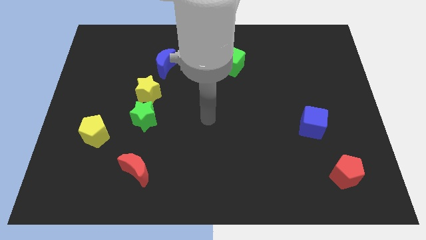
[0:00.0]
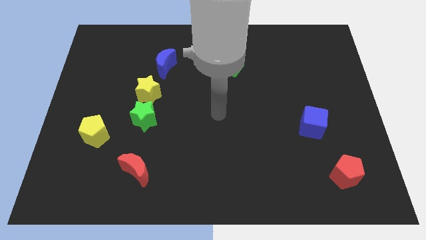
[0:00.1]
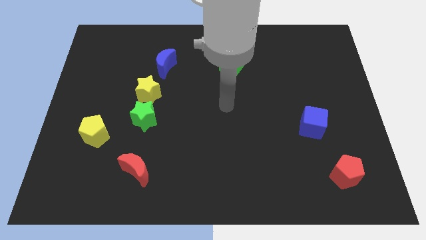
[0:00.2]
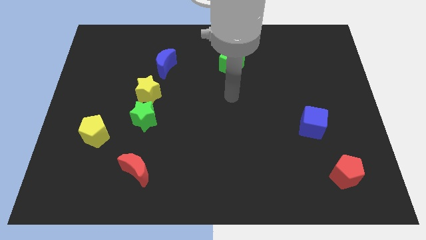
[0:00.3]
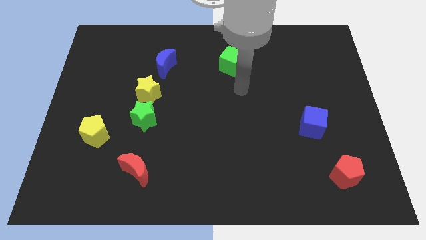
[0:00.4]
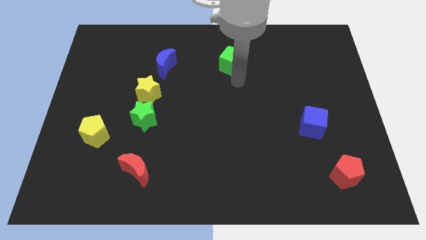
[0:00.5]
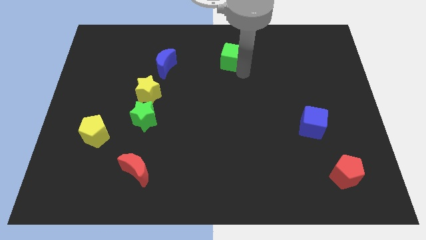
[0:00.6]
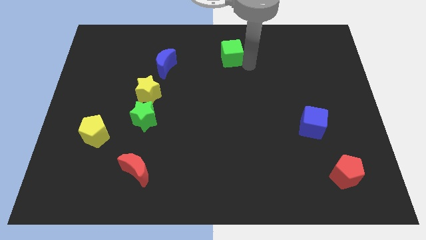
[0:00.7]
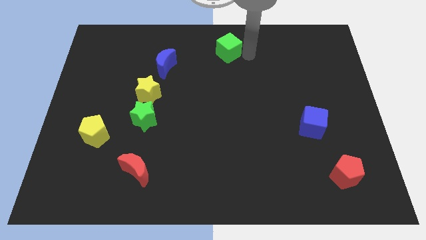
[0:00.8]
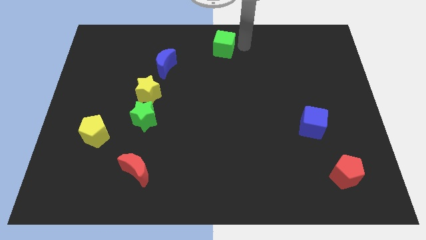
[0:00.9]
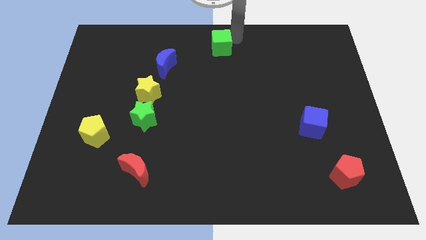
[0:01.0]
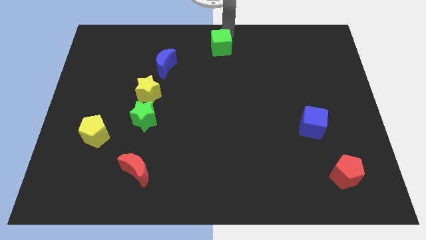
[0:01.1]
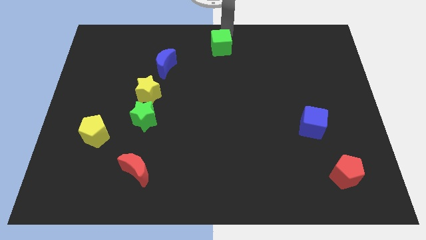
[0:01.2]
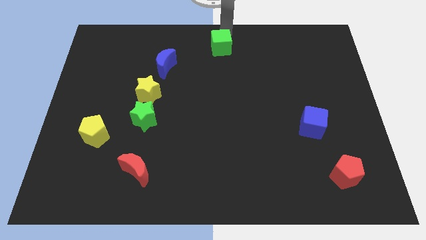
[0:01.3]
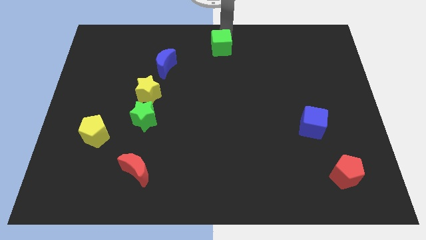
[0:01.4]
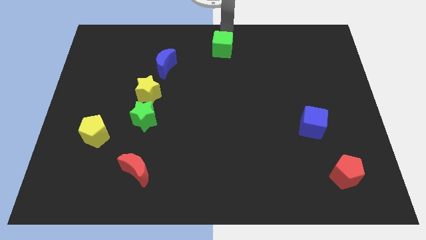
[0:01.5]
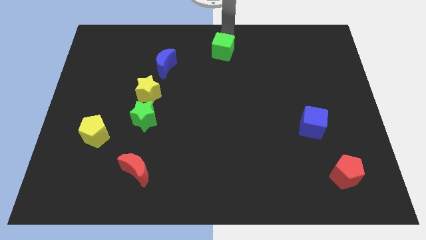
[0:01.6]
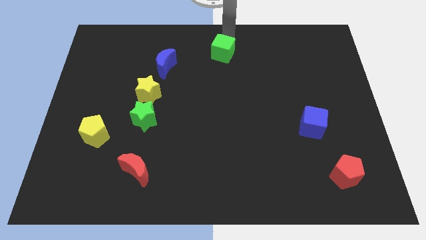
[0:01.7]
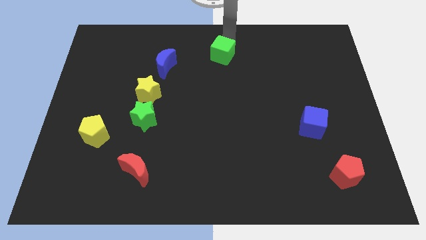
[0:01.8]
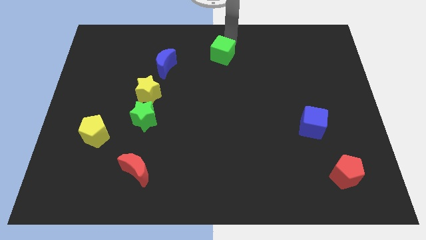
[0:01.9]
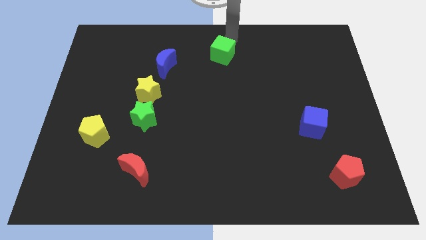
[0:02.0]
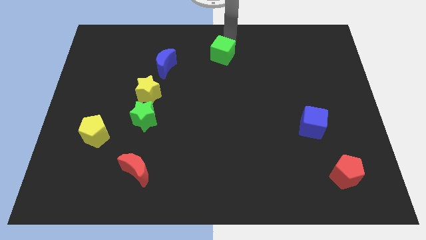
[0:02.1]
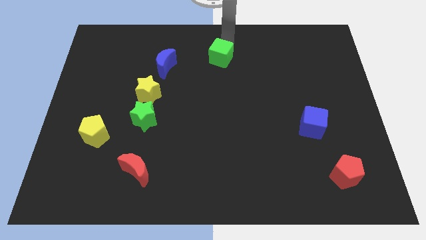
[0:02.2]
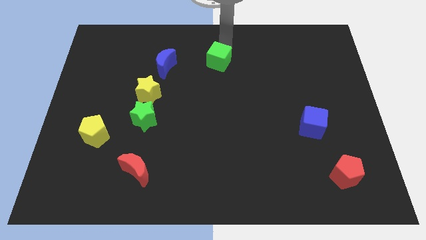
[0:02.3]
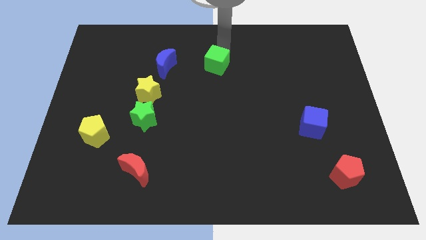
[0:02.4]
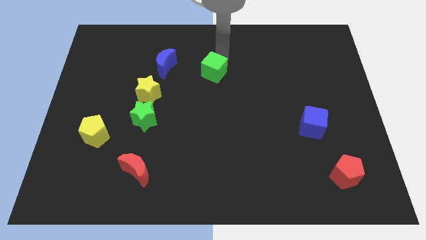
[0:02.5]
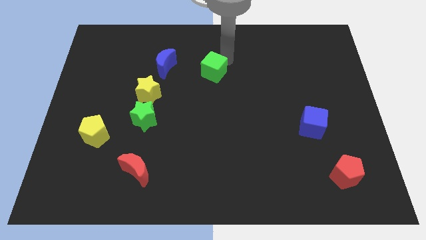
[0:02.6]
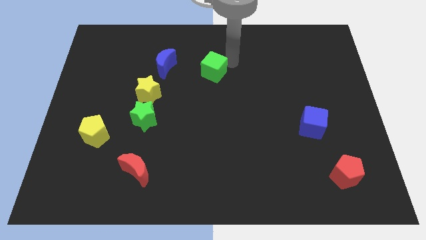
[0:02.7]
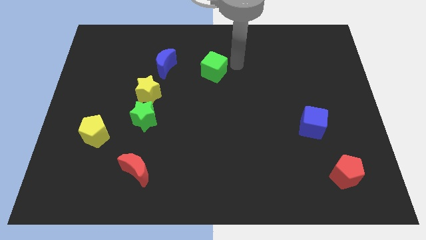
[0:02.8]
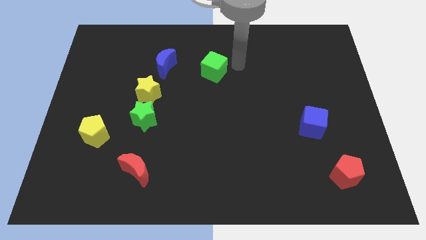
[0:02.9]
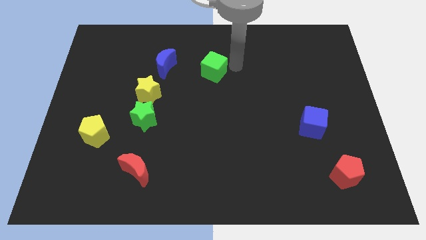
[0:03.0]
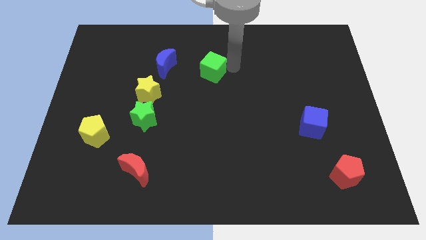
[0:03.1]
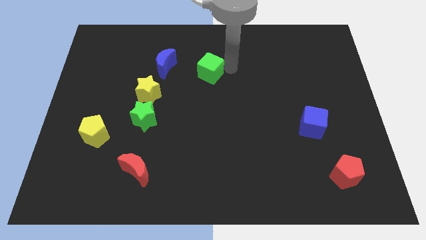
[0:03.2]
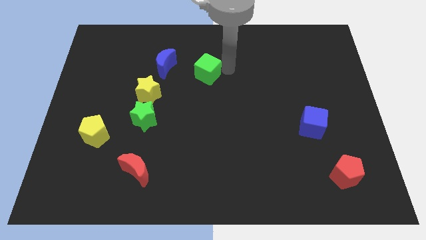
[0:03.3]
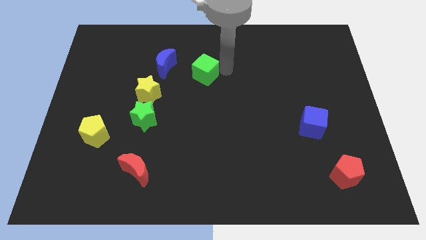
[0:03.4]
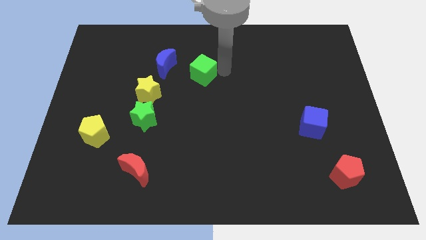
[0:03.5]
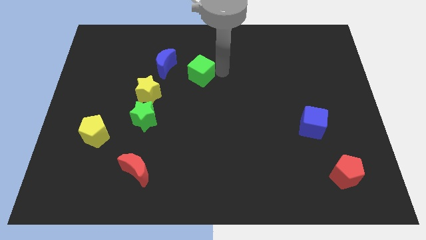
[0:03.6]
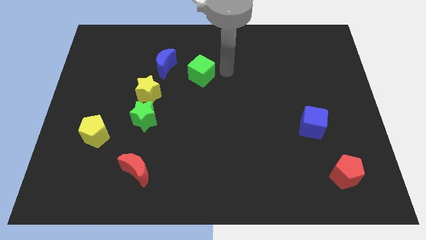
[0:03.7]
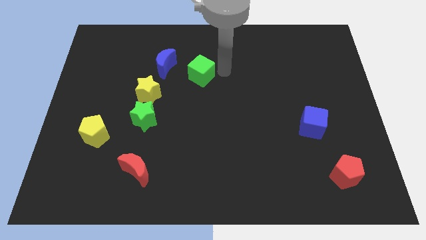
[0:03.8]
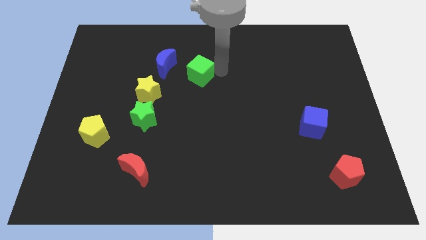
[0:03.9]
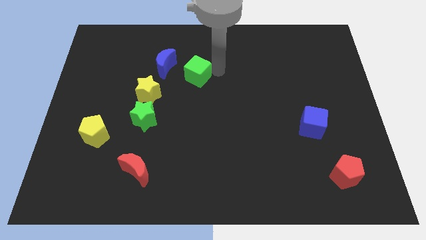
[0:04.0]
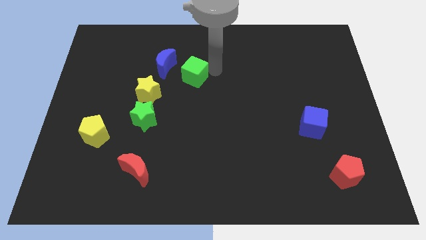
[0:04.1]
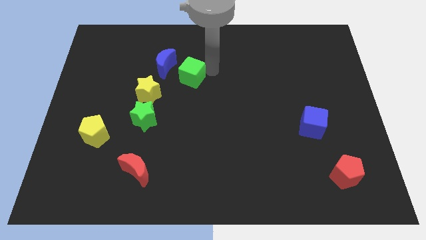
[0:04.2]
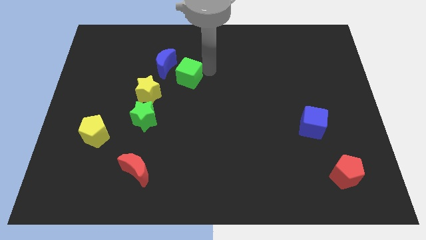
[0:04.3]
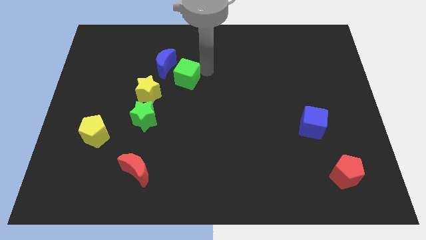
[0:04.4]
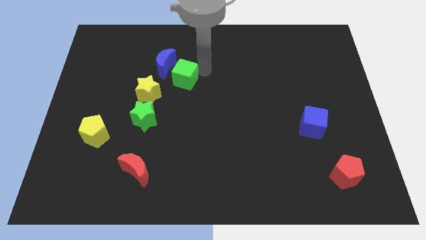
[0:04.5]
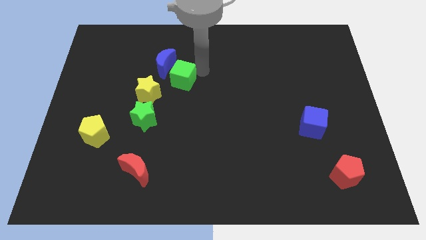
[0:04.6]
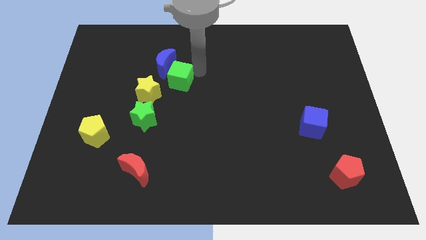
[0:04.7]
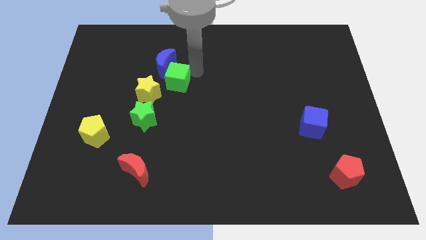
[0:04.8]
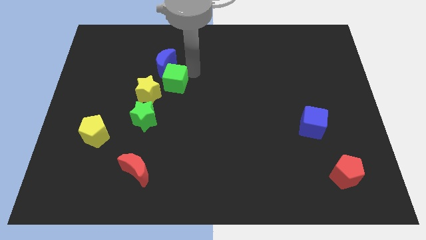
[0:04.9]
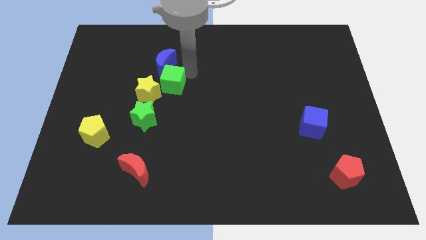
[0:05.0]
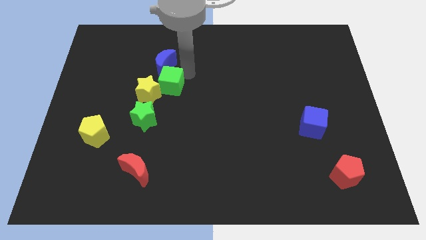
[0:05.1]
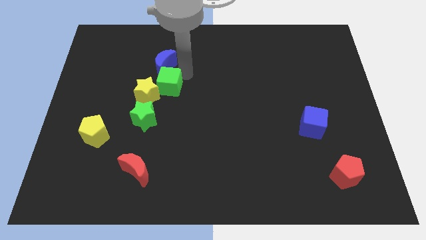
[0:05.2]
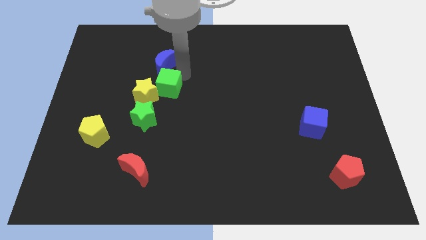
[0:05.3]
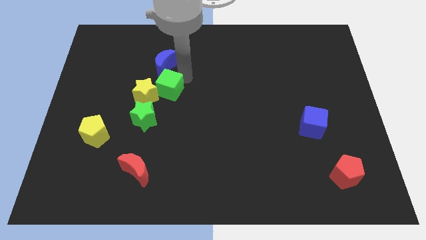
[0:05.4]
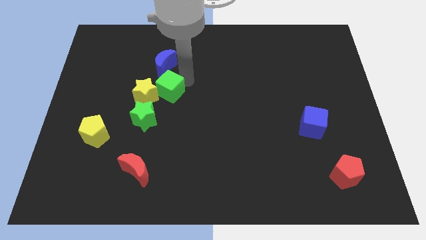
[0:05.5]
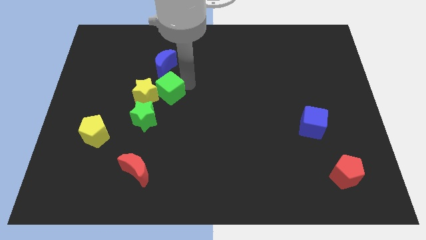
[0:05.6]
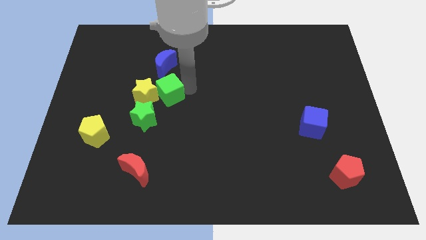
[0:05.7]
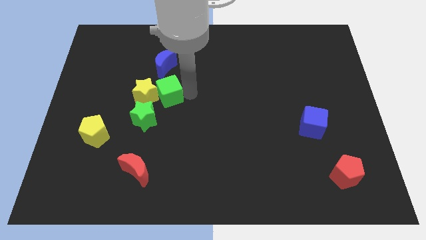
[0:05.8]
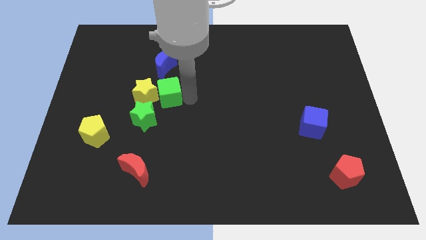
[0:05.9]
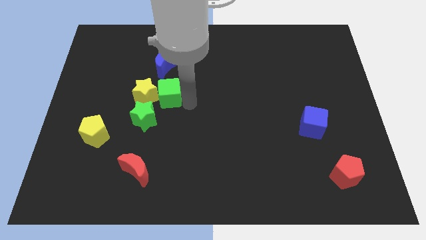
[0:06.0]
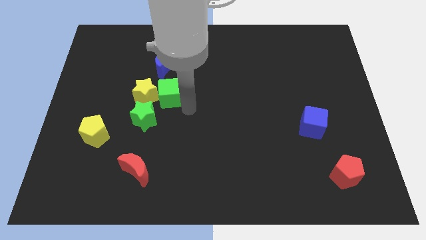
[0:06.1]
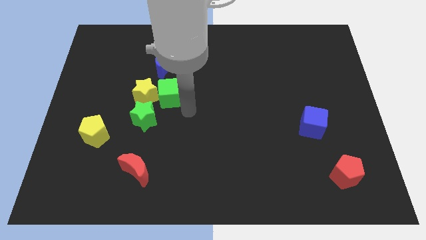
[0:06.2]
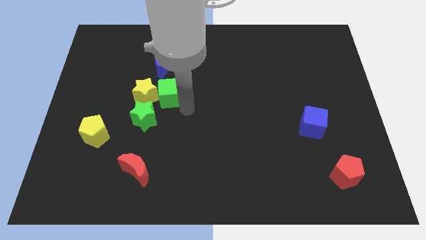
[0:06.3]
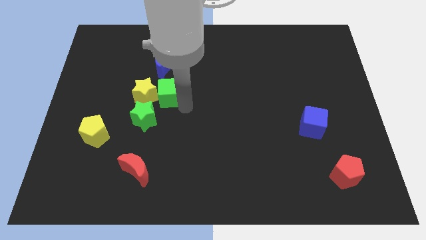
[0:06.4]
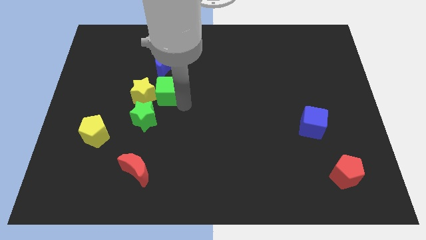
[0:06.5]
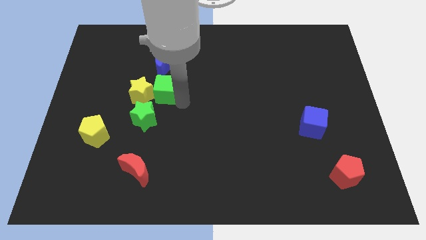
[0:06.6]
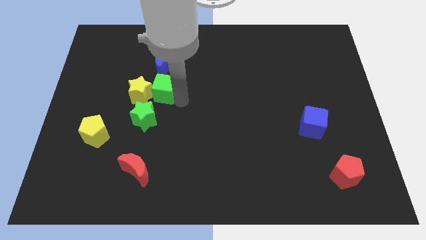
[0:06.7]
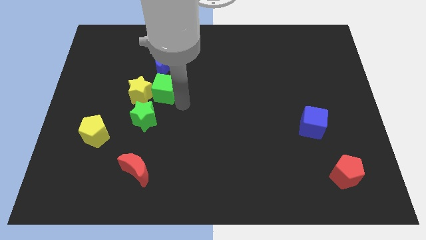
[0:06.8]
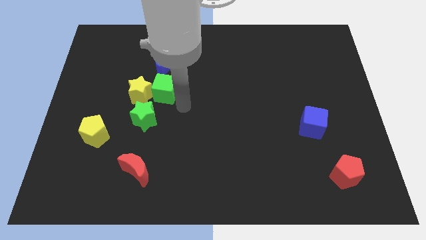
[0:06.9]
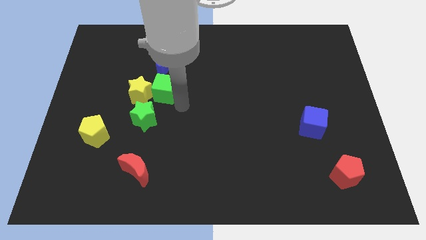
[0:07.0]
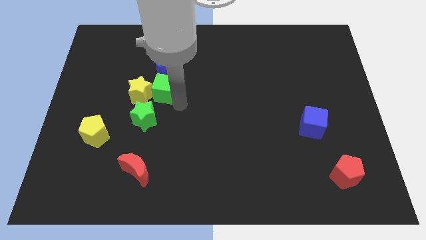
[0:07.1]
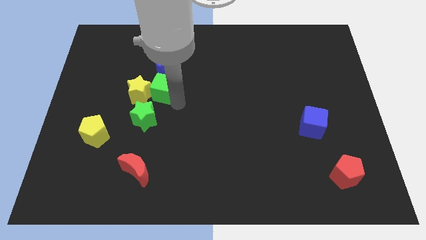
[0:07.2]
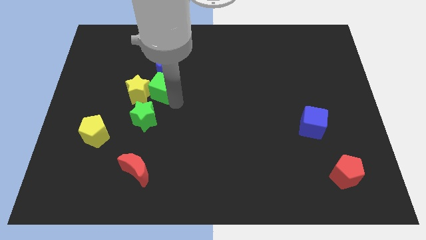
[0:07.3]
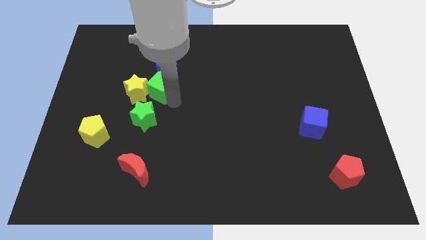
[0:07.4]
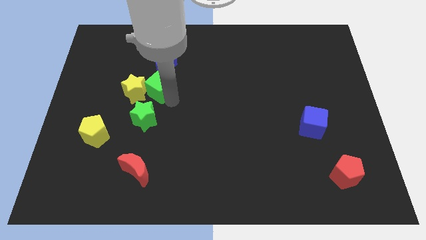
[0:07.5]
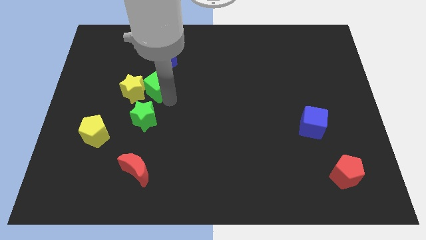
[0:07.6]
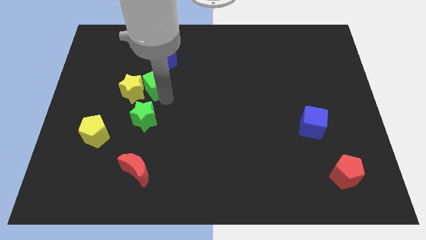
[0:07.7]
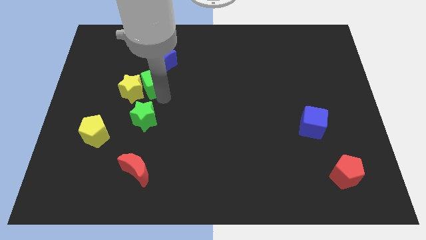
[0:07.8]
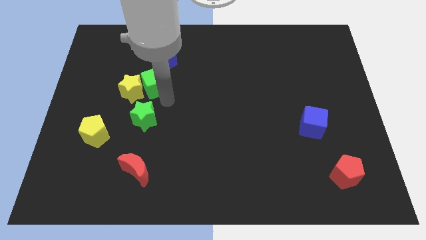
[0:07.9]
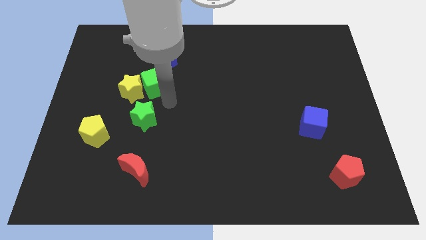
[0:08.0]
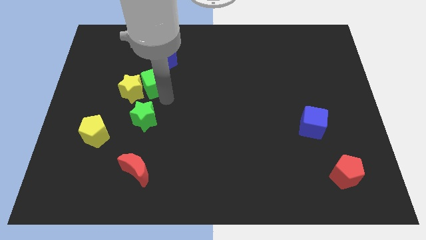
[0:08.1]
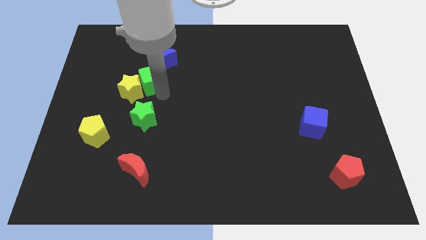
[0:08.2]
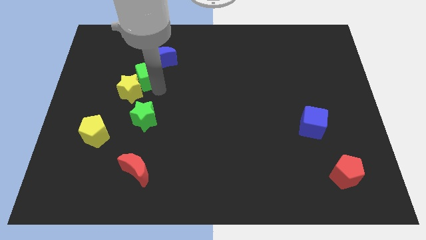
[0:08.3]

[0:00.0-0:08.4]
move the green cube to the left
